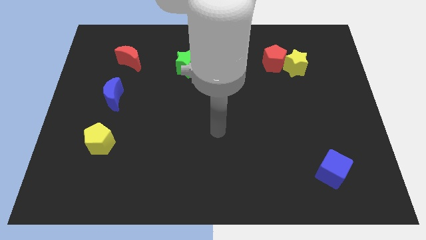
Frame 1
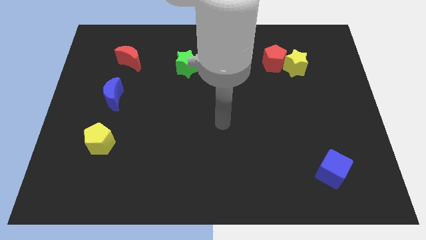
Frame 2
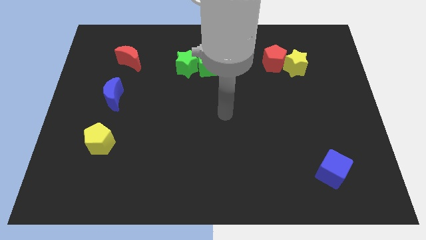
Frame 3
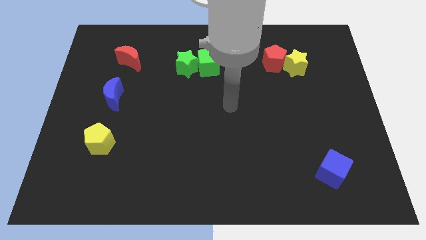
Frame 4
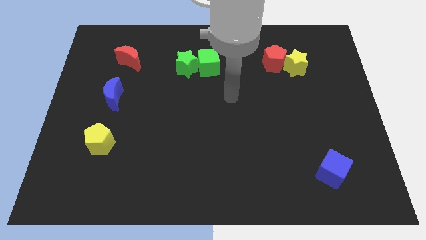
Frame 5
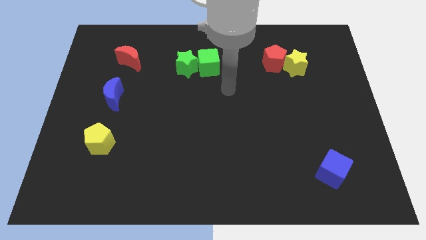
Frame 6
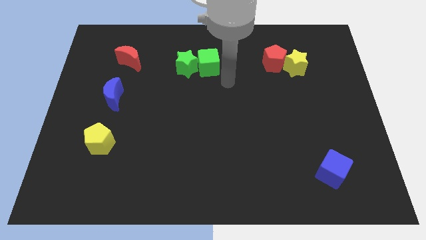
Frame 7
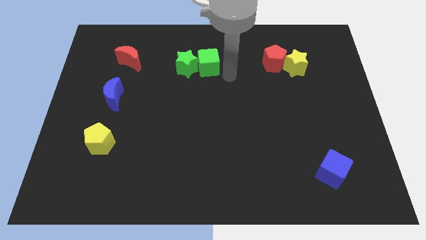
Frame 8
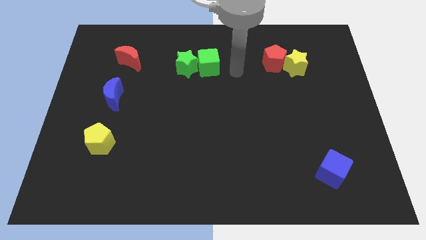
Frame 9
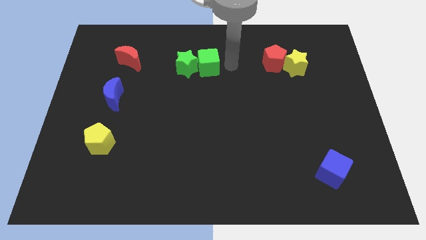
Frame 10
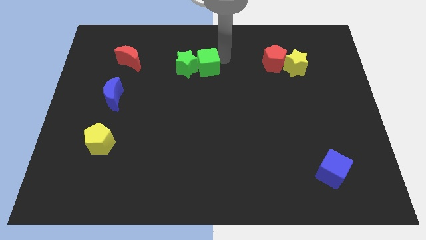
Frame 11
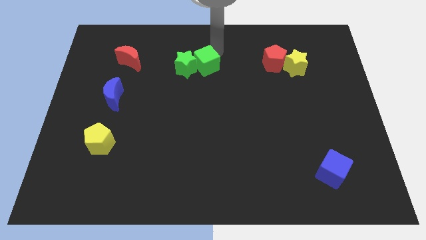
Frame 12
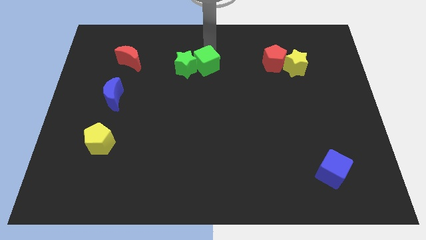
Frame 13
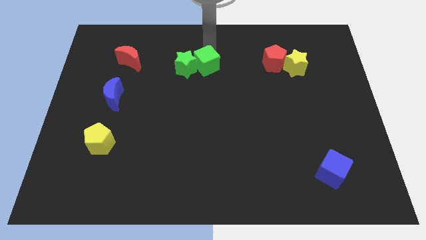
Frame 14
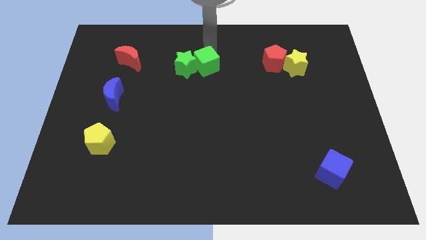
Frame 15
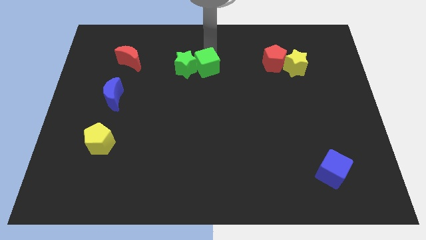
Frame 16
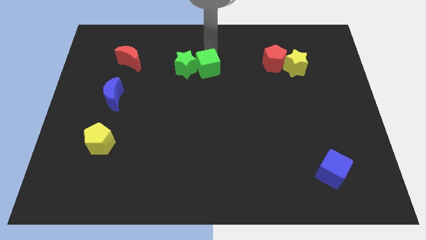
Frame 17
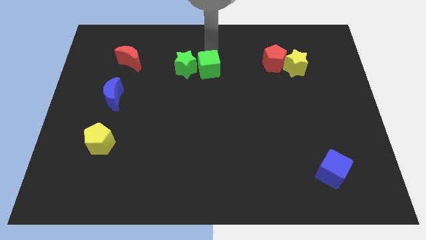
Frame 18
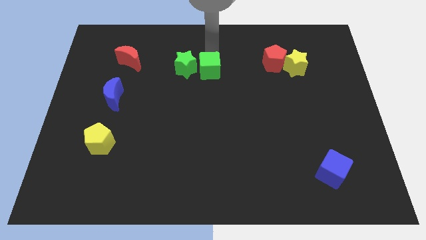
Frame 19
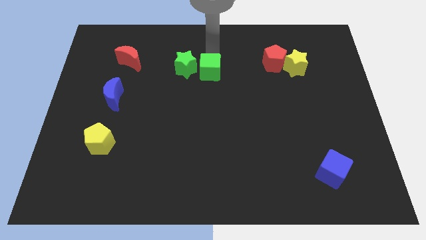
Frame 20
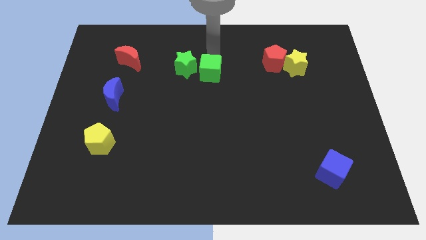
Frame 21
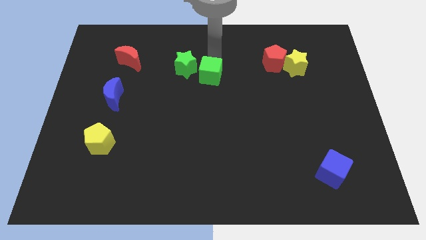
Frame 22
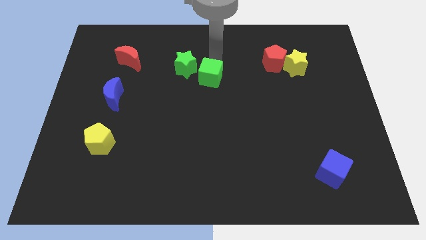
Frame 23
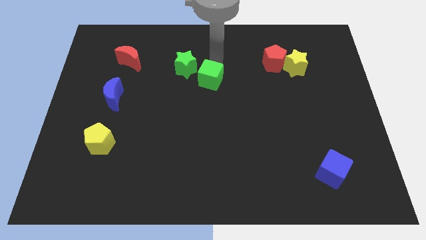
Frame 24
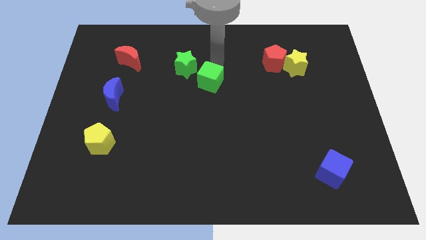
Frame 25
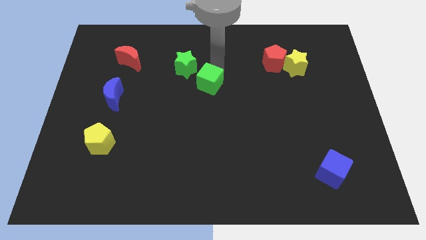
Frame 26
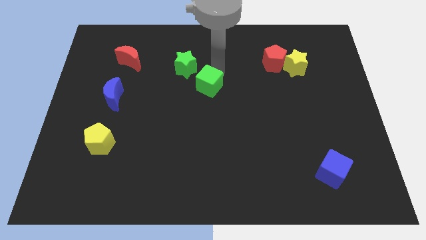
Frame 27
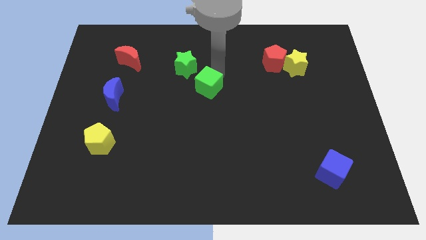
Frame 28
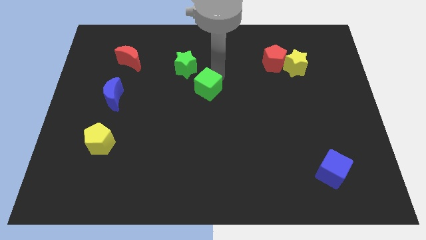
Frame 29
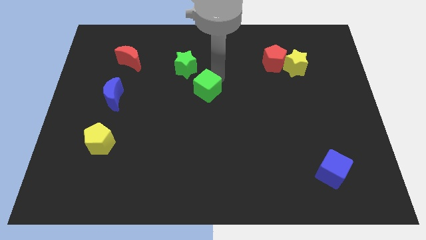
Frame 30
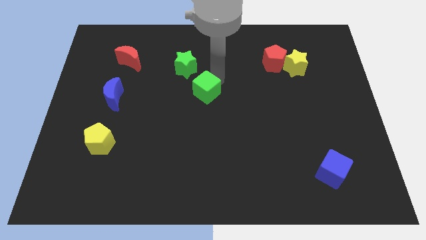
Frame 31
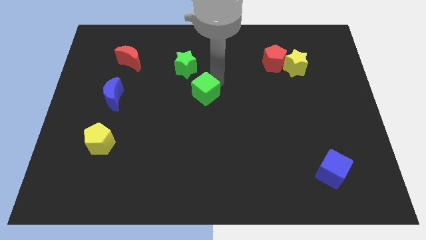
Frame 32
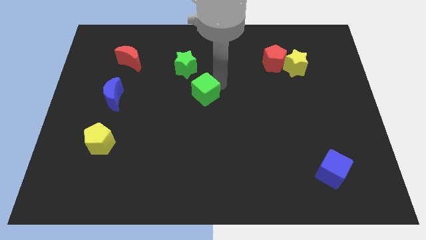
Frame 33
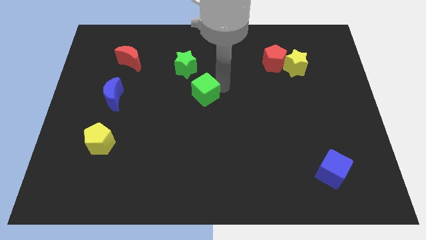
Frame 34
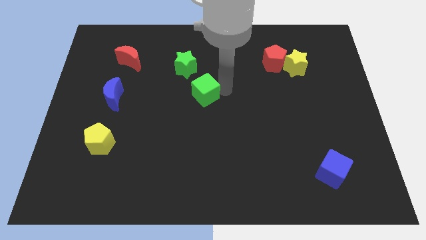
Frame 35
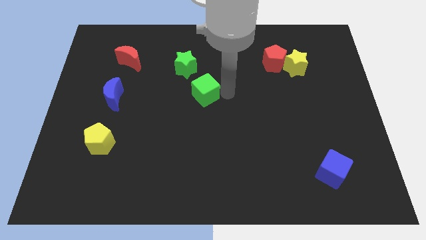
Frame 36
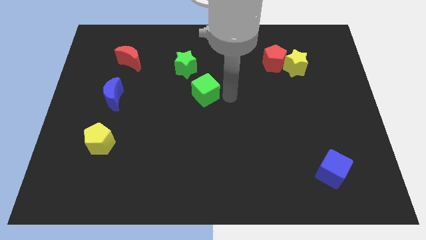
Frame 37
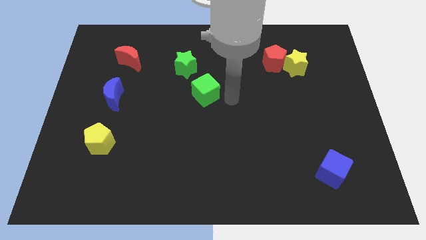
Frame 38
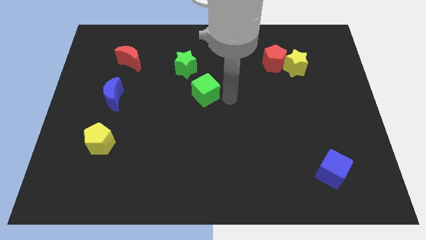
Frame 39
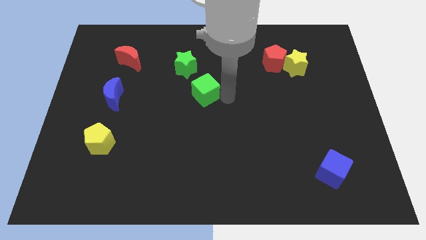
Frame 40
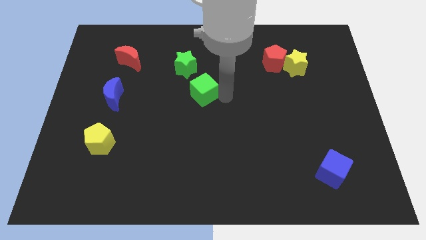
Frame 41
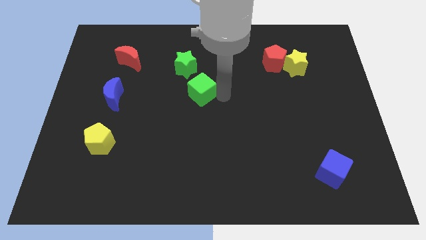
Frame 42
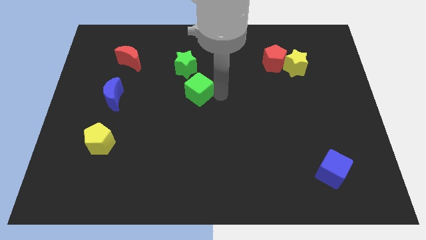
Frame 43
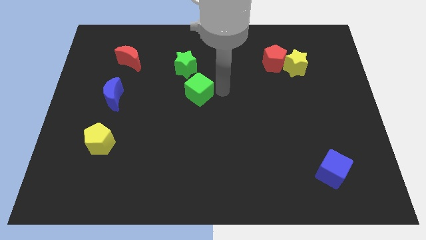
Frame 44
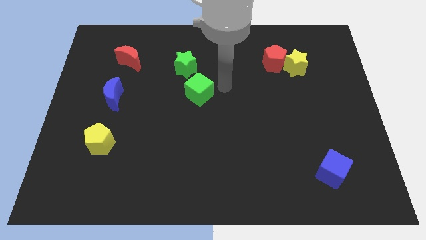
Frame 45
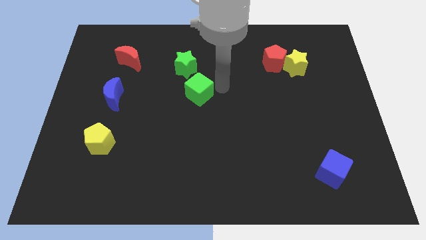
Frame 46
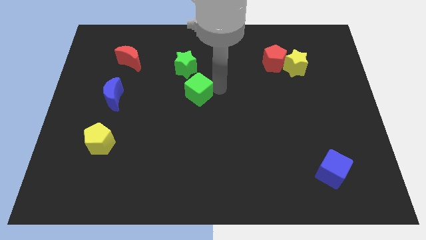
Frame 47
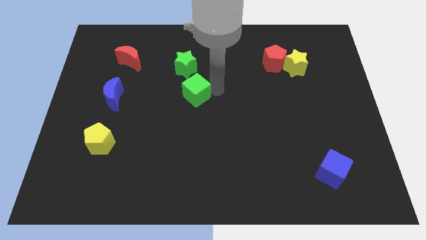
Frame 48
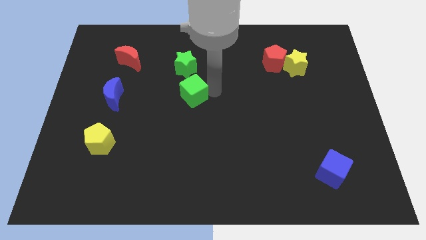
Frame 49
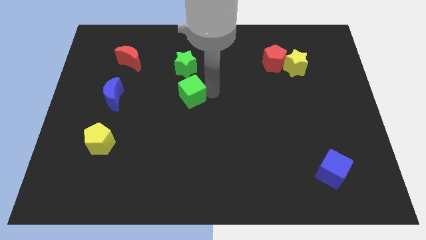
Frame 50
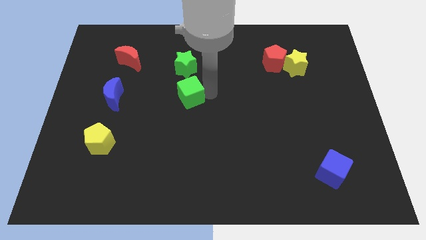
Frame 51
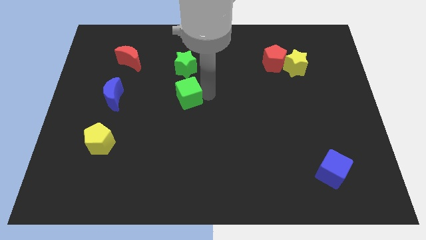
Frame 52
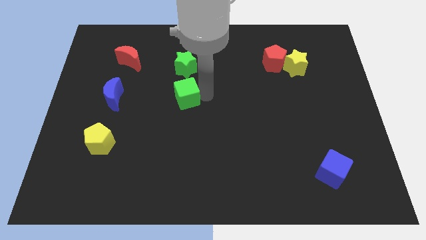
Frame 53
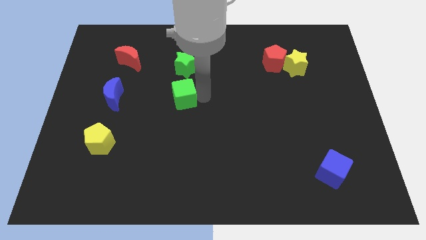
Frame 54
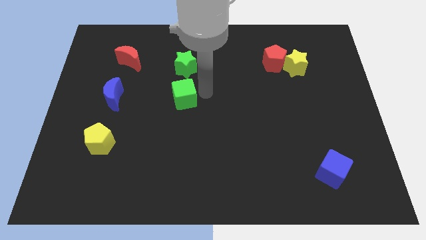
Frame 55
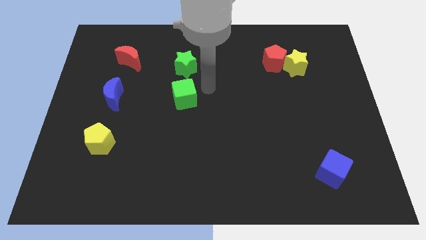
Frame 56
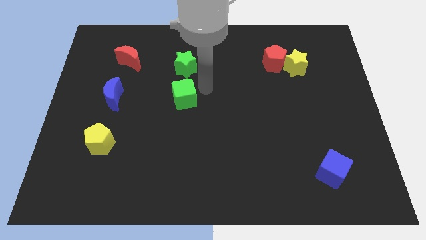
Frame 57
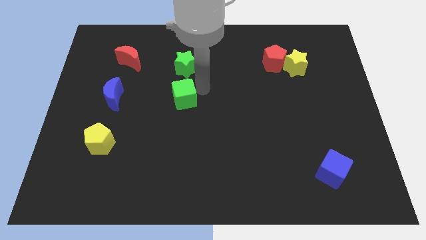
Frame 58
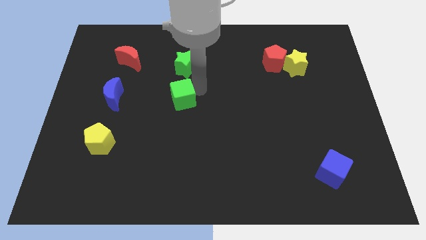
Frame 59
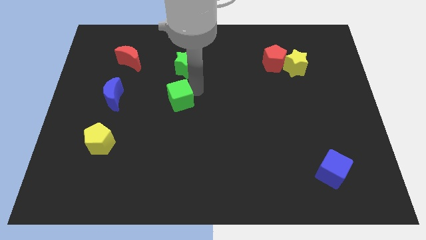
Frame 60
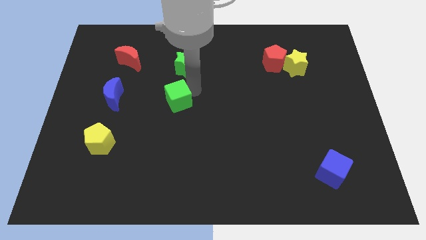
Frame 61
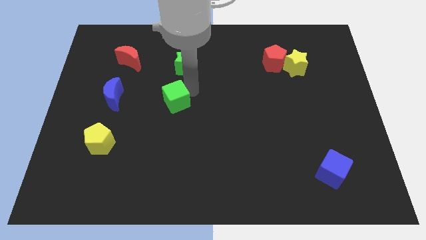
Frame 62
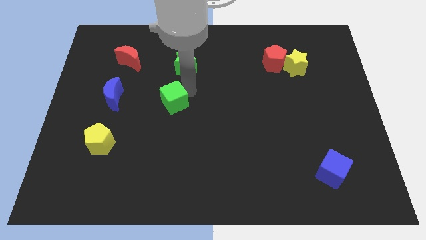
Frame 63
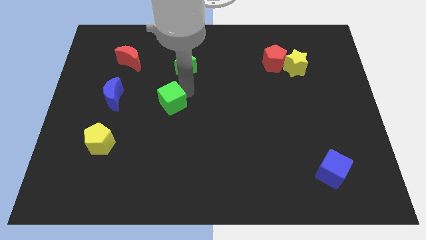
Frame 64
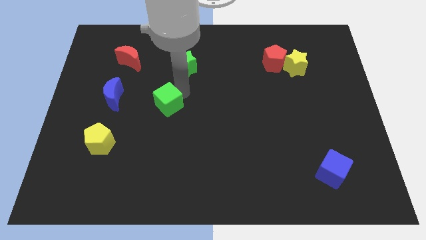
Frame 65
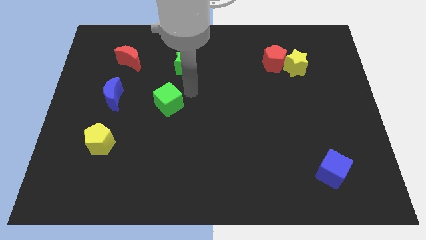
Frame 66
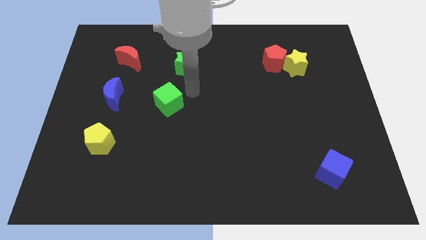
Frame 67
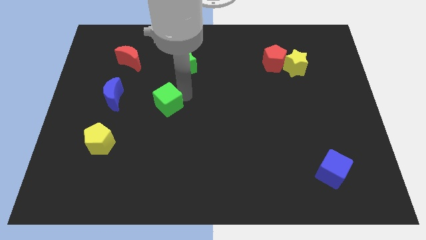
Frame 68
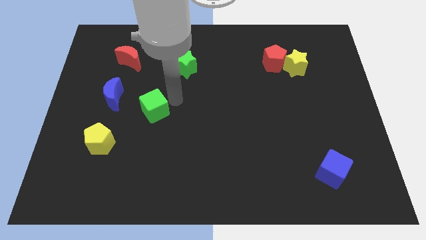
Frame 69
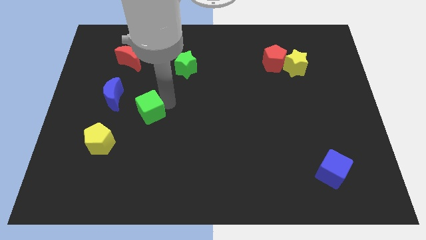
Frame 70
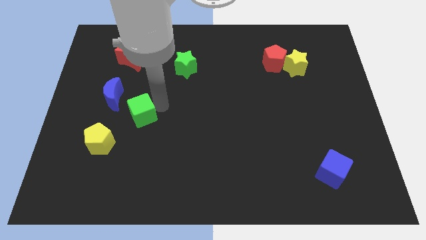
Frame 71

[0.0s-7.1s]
put the green cube to the top right side of the yellow pentagon

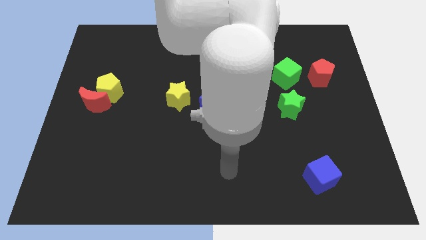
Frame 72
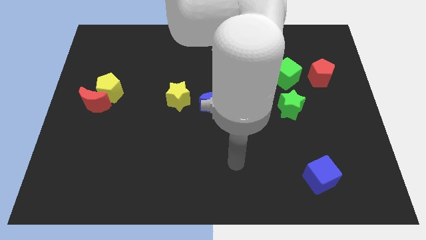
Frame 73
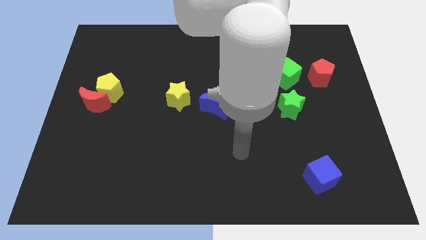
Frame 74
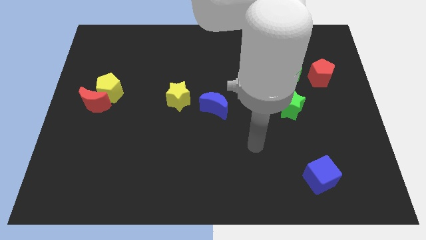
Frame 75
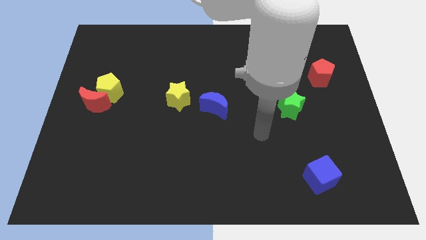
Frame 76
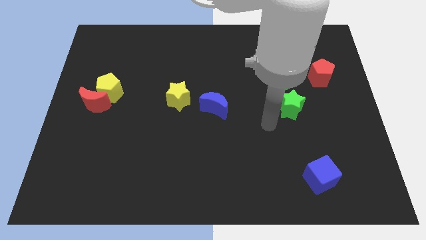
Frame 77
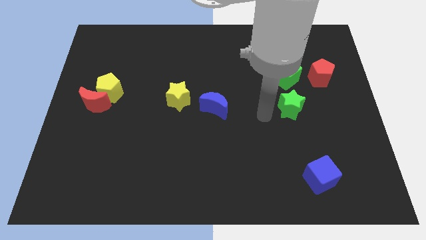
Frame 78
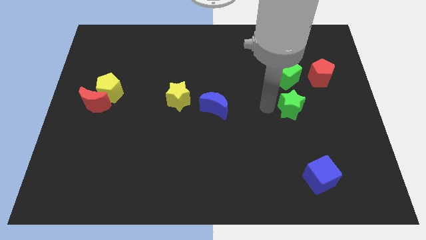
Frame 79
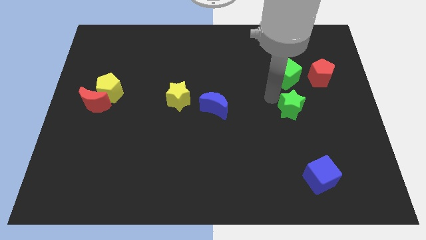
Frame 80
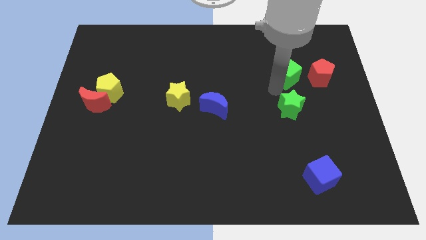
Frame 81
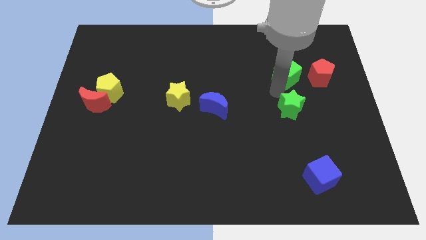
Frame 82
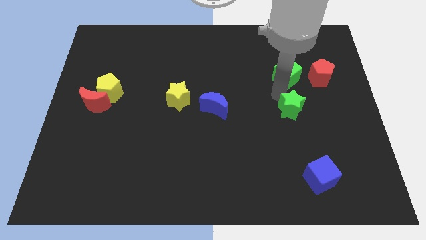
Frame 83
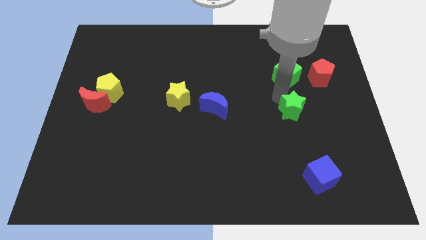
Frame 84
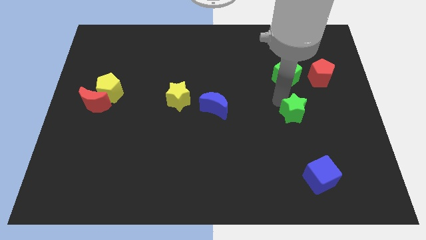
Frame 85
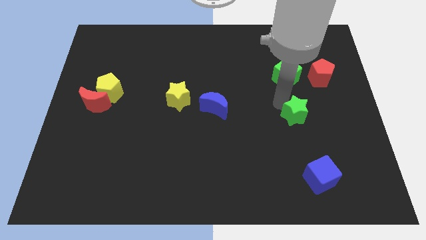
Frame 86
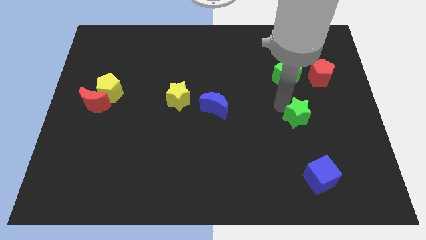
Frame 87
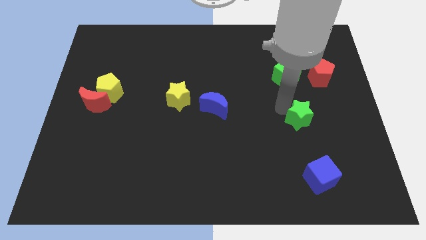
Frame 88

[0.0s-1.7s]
push the green star above the blue cube
